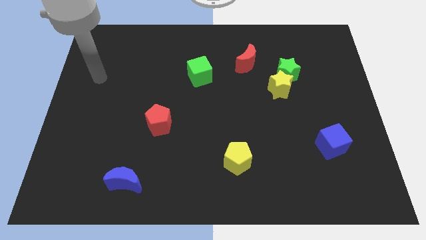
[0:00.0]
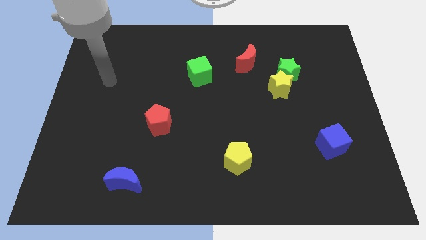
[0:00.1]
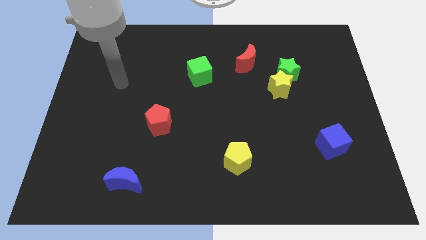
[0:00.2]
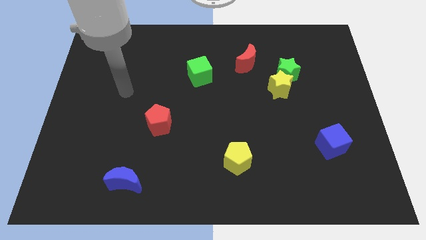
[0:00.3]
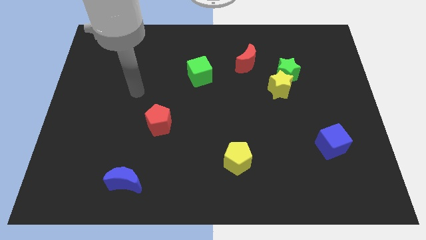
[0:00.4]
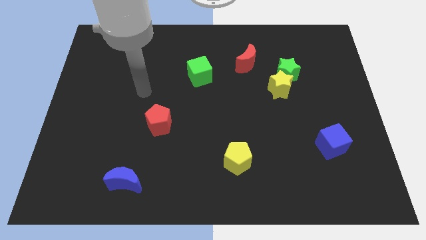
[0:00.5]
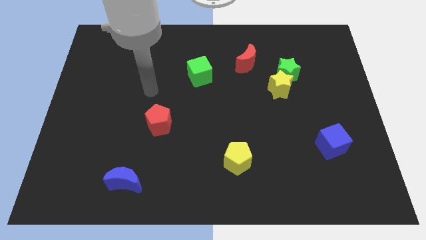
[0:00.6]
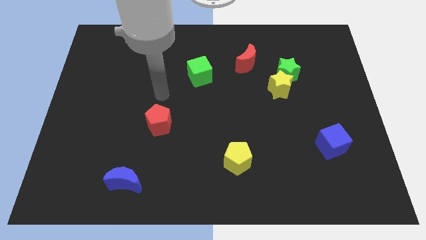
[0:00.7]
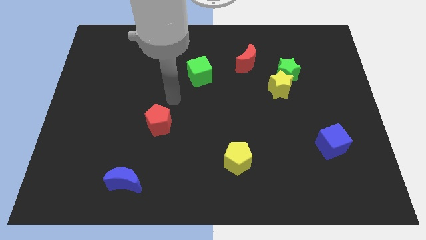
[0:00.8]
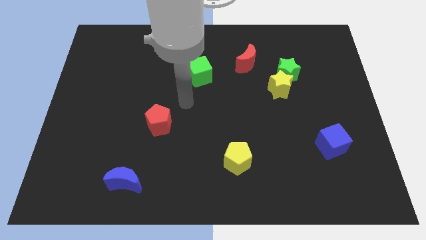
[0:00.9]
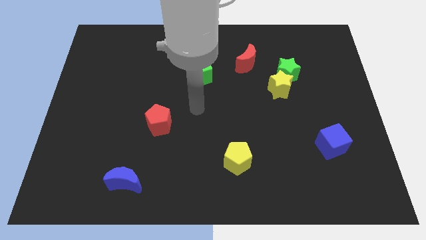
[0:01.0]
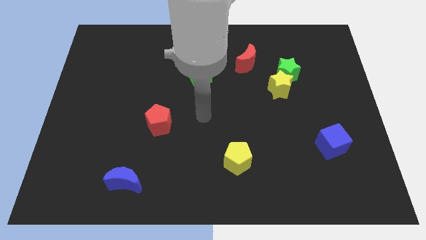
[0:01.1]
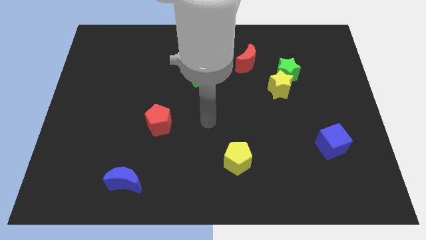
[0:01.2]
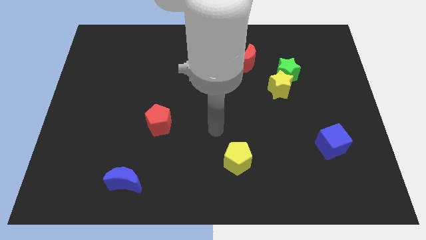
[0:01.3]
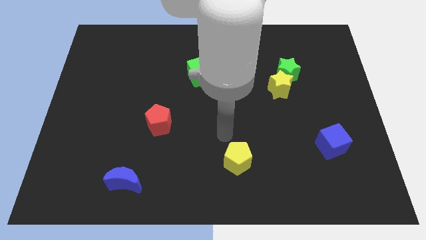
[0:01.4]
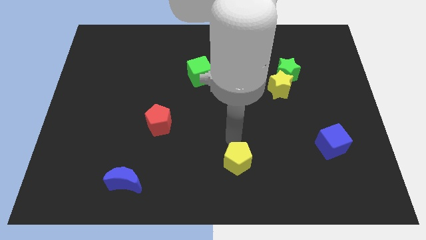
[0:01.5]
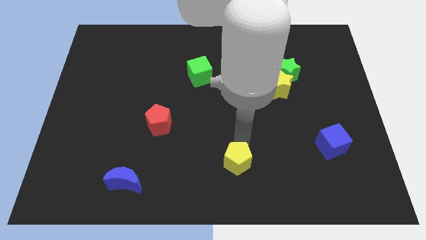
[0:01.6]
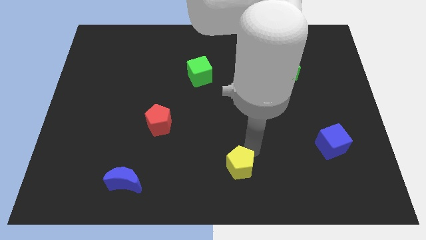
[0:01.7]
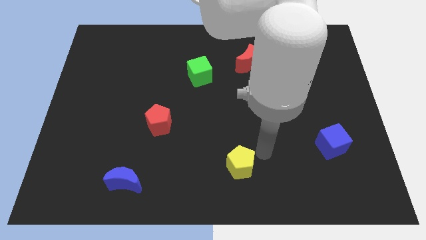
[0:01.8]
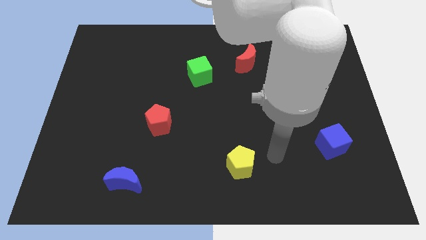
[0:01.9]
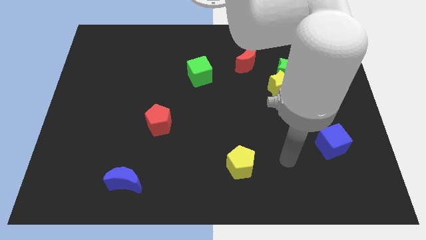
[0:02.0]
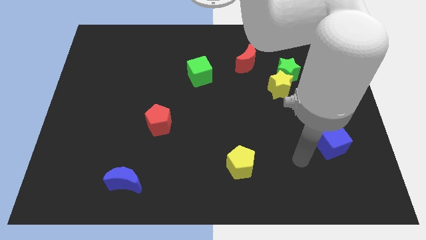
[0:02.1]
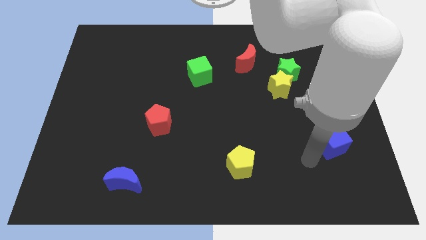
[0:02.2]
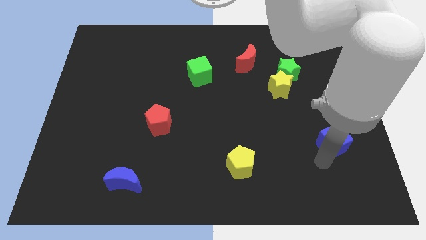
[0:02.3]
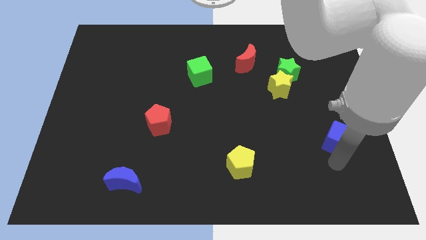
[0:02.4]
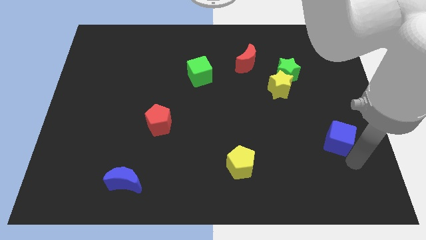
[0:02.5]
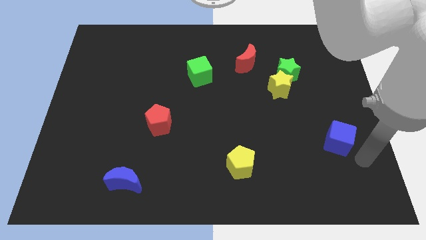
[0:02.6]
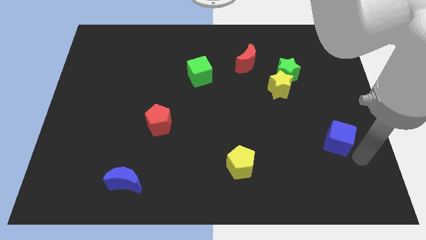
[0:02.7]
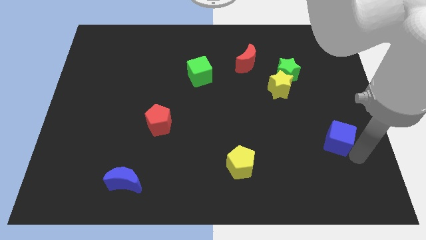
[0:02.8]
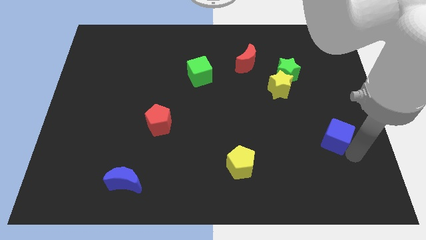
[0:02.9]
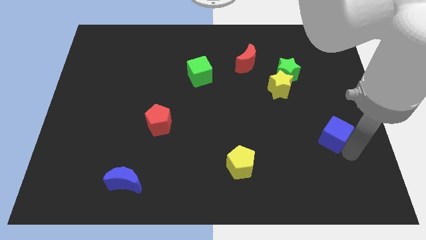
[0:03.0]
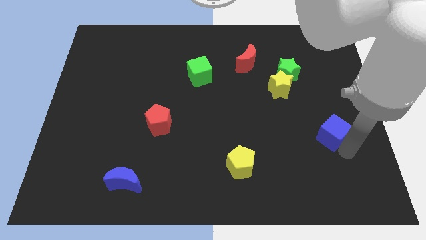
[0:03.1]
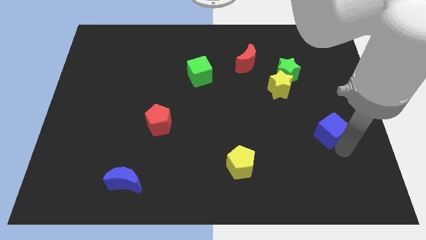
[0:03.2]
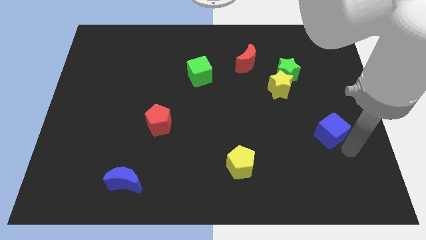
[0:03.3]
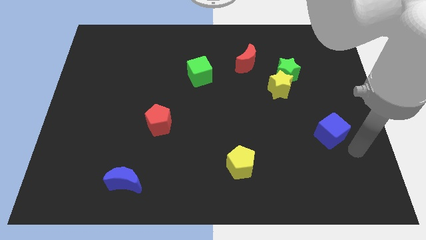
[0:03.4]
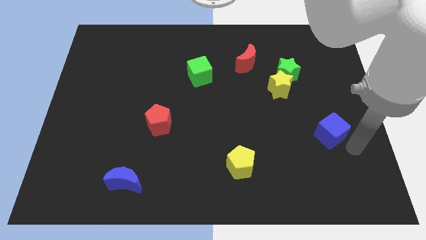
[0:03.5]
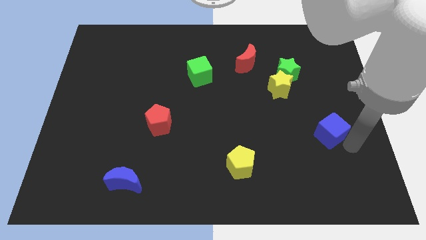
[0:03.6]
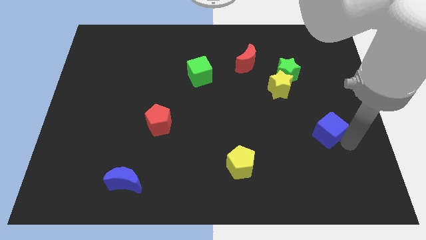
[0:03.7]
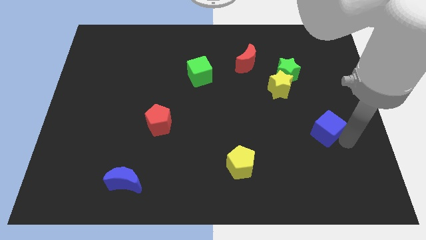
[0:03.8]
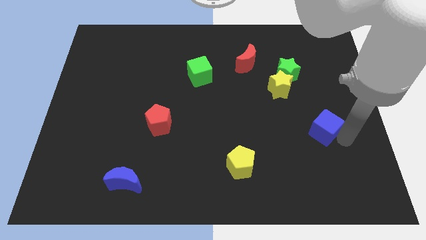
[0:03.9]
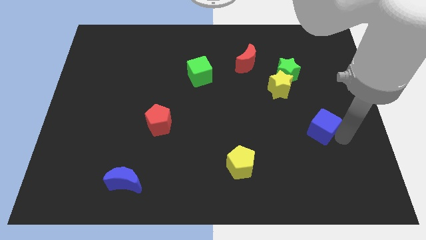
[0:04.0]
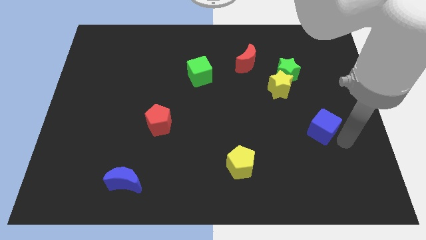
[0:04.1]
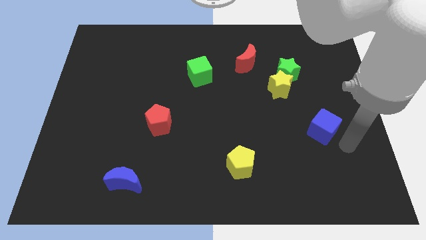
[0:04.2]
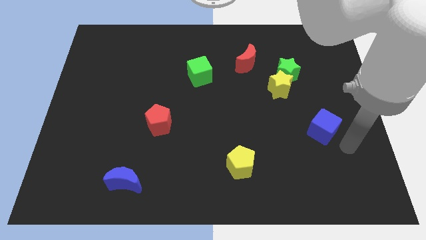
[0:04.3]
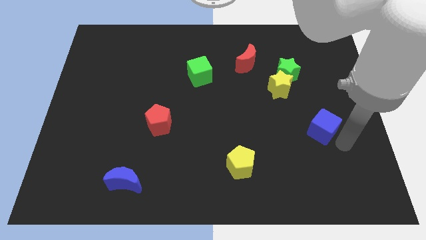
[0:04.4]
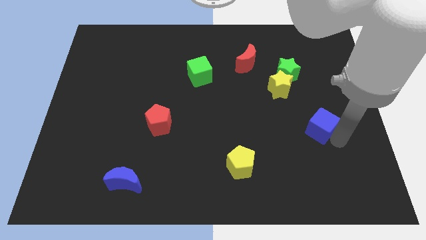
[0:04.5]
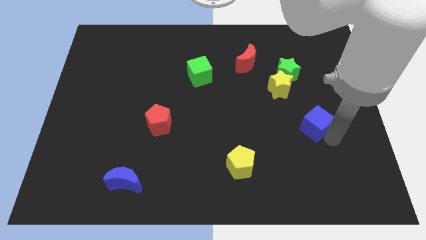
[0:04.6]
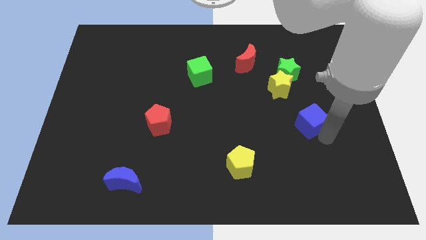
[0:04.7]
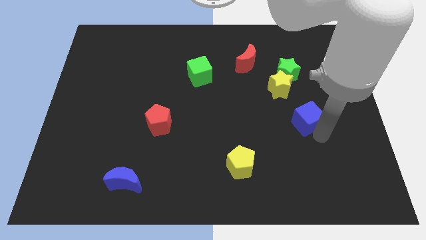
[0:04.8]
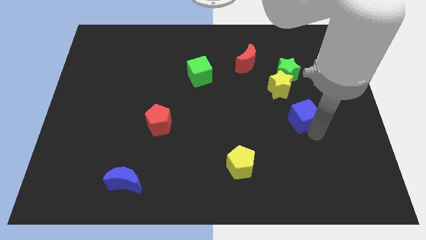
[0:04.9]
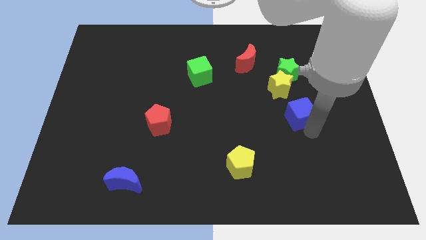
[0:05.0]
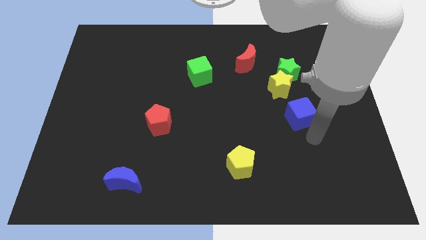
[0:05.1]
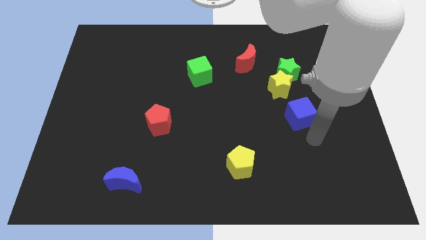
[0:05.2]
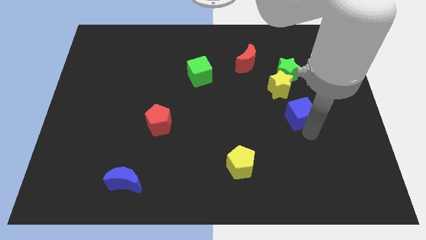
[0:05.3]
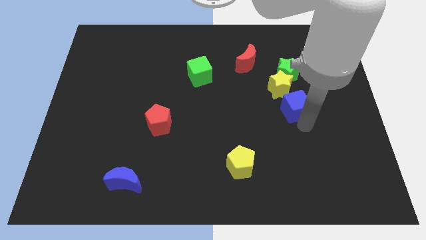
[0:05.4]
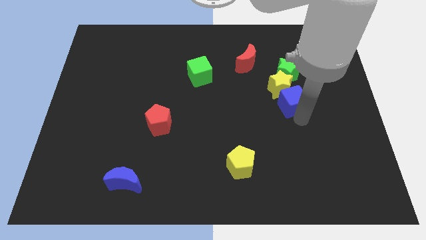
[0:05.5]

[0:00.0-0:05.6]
push the blue cube close to the yellow star
